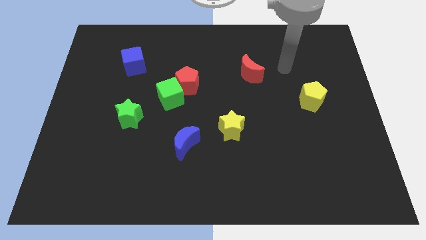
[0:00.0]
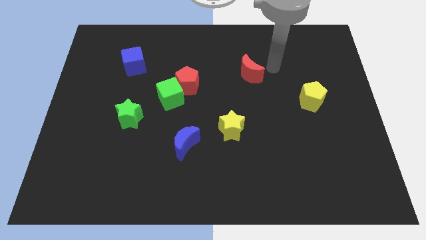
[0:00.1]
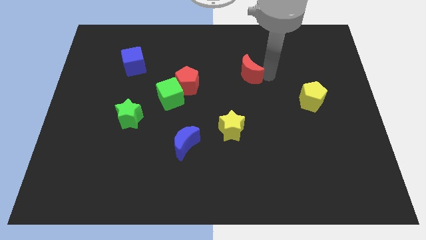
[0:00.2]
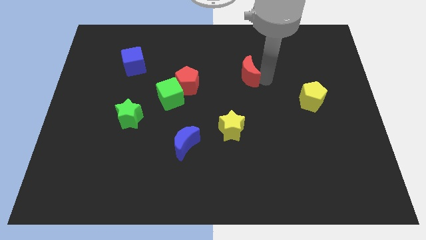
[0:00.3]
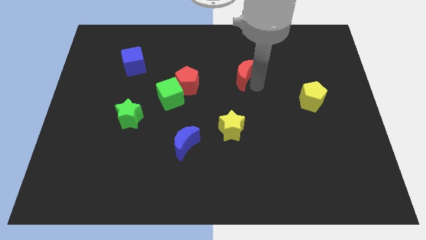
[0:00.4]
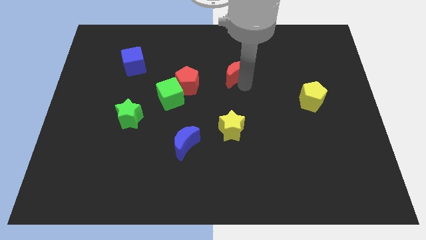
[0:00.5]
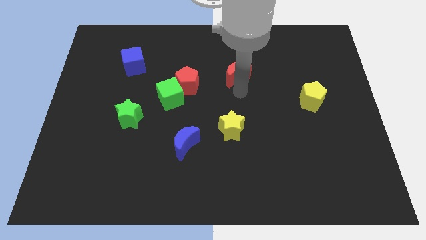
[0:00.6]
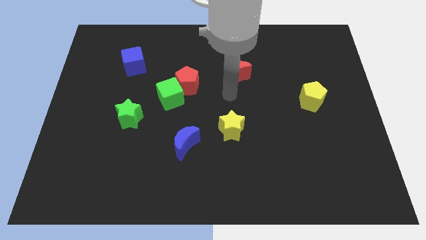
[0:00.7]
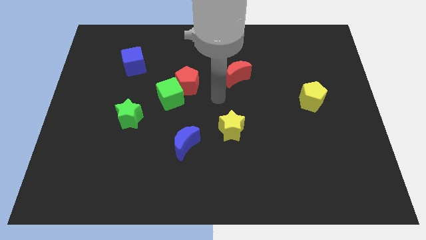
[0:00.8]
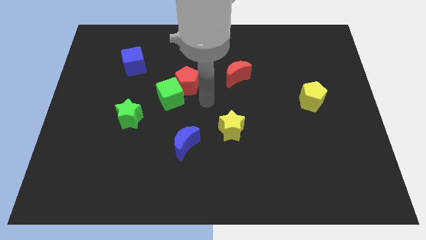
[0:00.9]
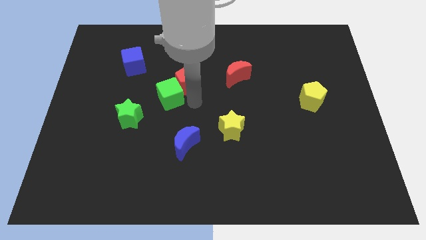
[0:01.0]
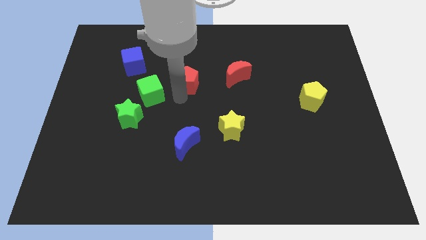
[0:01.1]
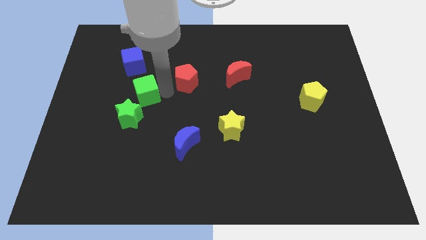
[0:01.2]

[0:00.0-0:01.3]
pull the red pentagon apart from the green cube

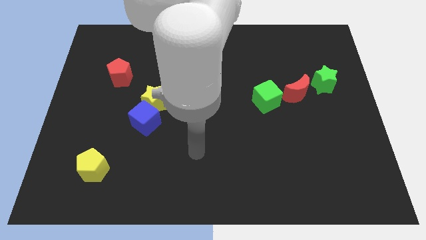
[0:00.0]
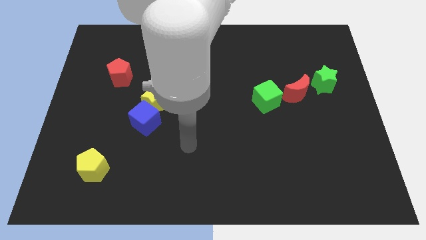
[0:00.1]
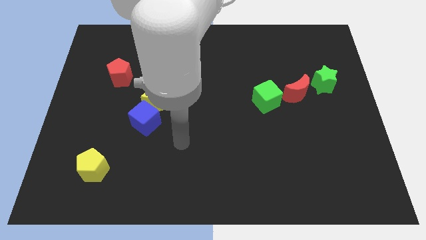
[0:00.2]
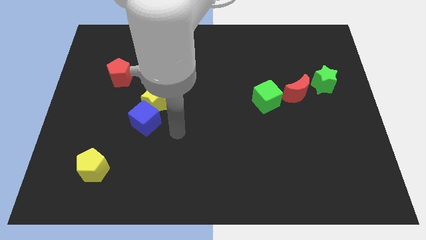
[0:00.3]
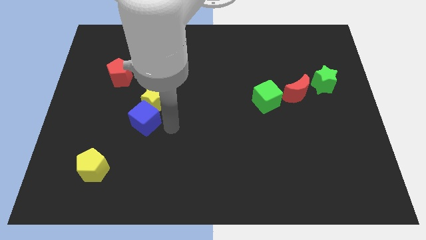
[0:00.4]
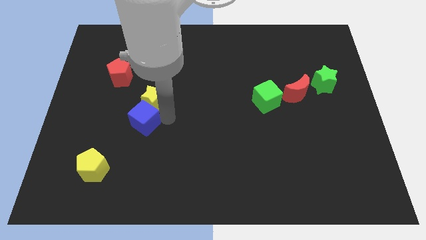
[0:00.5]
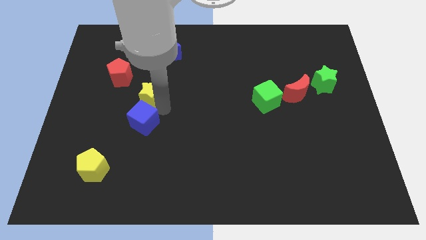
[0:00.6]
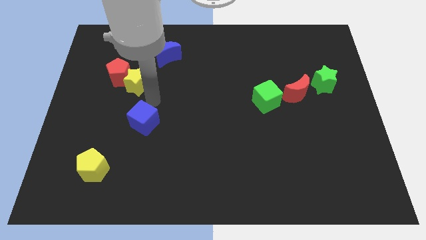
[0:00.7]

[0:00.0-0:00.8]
move the blue cube away from the yellow star

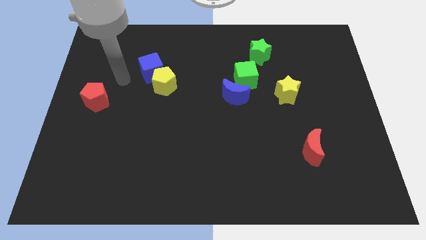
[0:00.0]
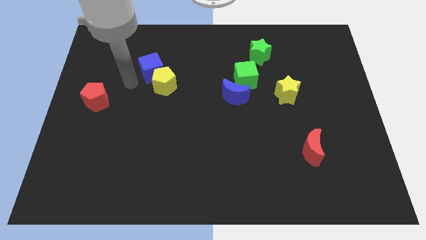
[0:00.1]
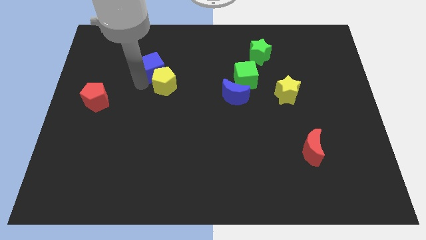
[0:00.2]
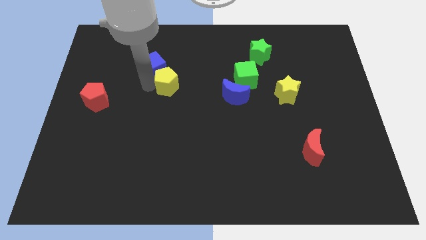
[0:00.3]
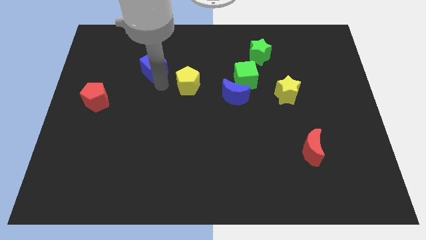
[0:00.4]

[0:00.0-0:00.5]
separate the blue cube from the yellow pentagon

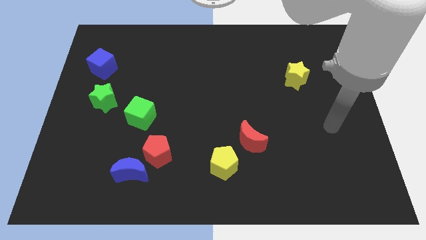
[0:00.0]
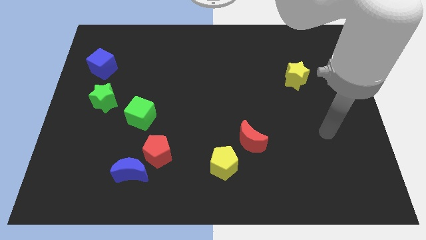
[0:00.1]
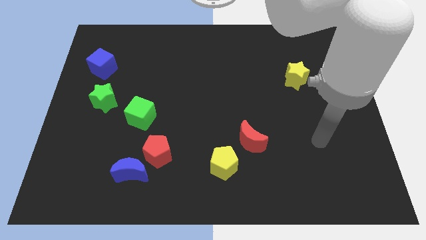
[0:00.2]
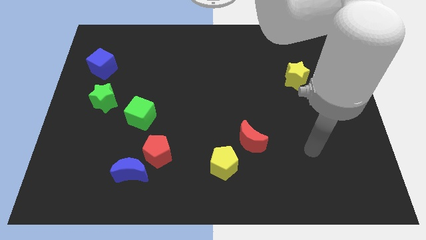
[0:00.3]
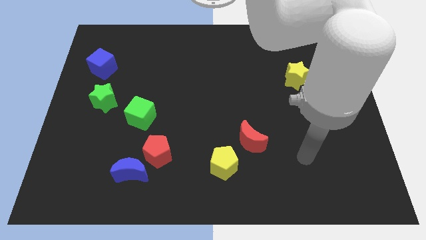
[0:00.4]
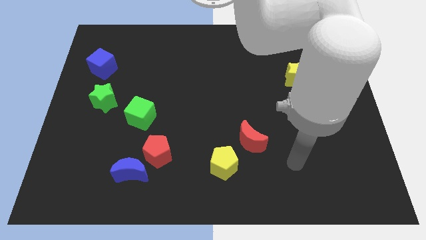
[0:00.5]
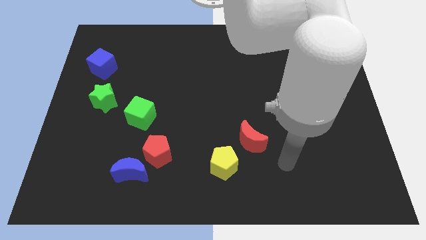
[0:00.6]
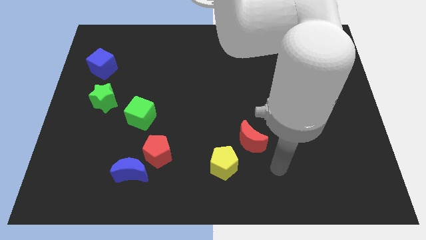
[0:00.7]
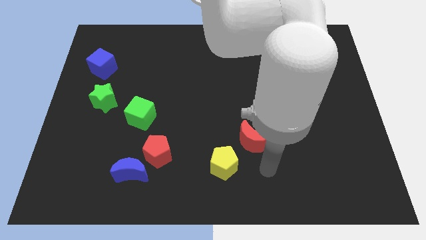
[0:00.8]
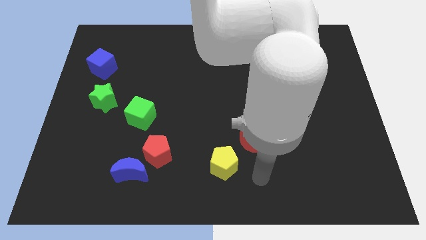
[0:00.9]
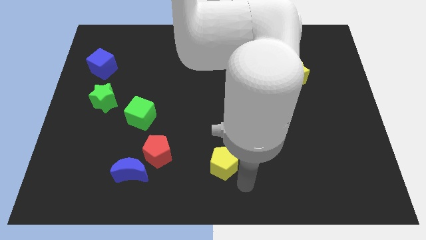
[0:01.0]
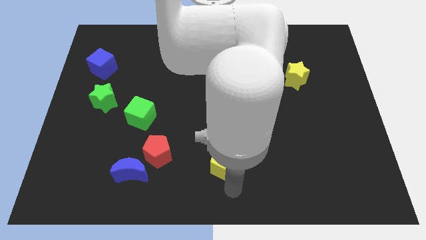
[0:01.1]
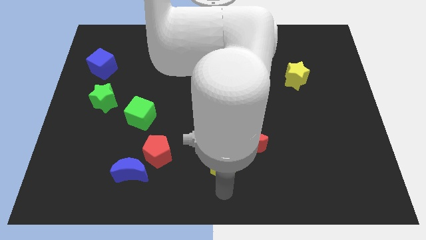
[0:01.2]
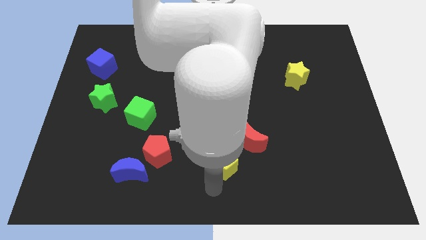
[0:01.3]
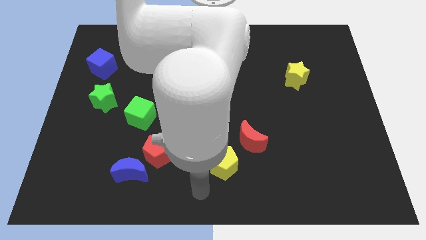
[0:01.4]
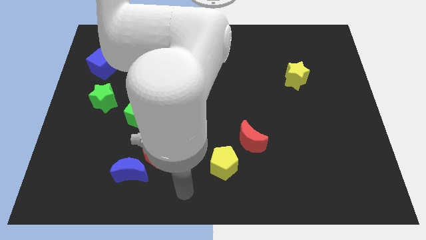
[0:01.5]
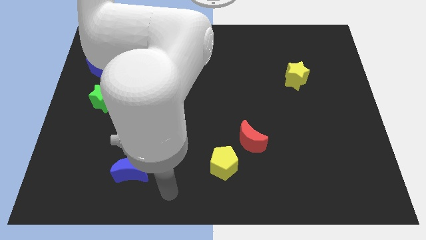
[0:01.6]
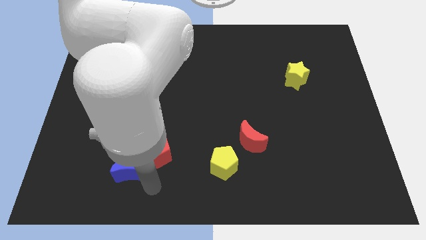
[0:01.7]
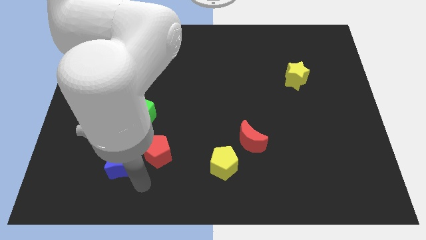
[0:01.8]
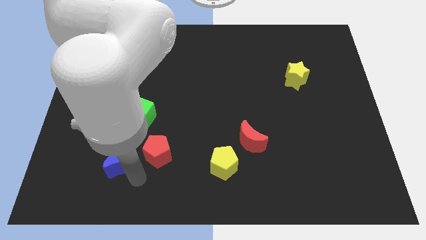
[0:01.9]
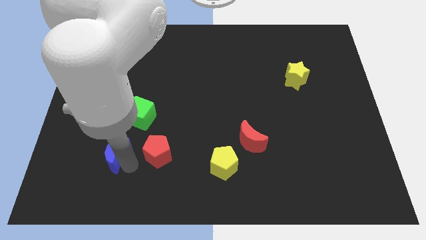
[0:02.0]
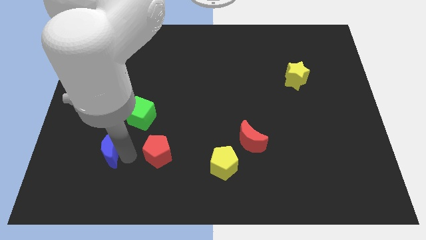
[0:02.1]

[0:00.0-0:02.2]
separate the red pentagon from the blue moon

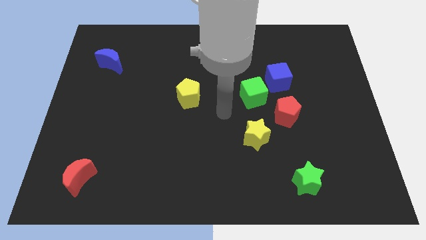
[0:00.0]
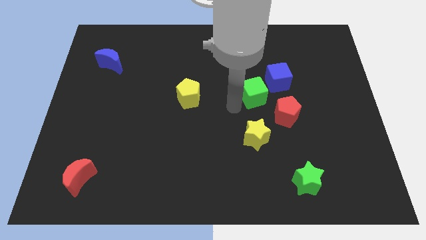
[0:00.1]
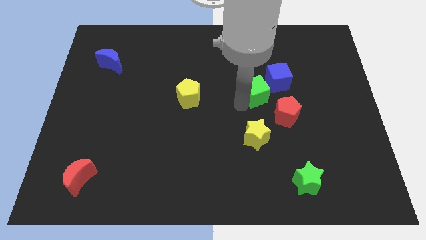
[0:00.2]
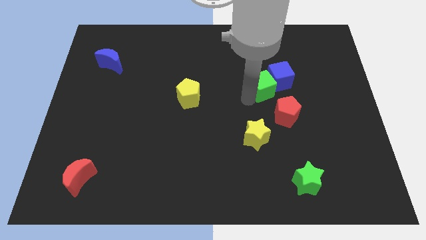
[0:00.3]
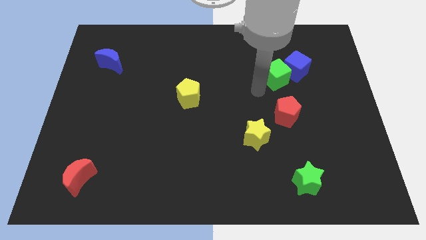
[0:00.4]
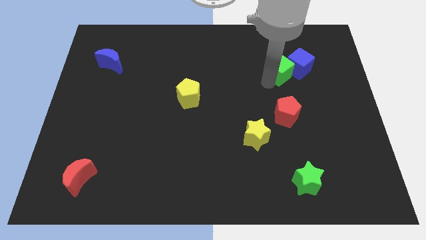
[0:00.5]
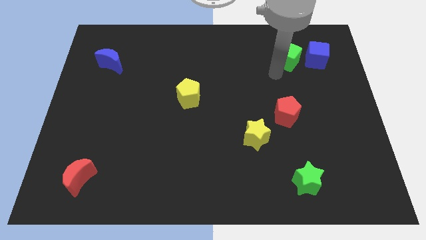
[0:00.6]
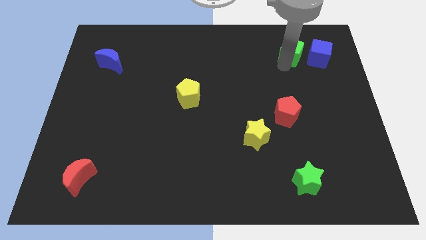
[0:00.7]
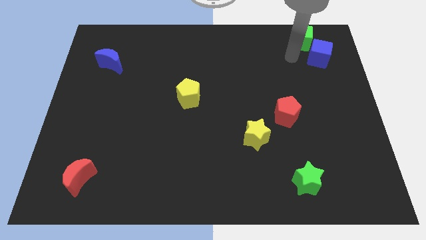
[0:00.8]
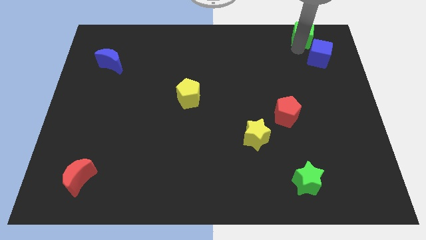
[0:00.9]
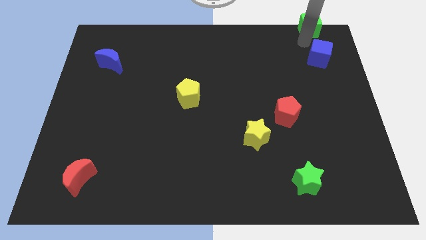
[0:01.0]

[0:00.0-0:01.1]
separate the blue cube from the green cube

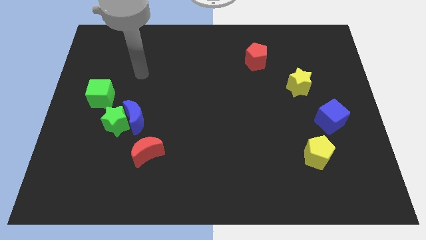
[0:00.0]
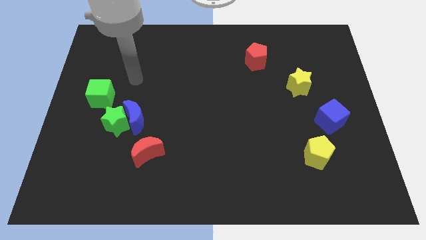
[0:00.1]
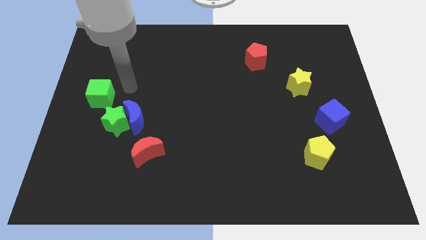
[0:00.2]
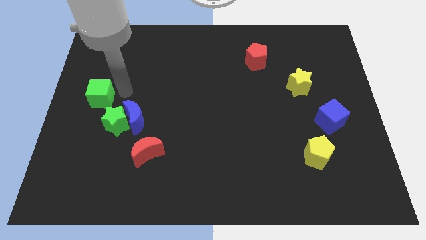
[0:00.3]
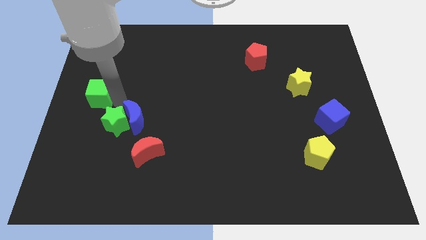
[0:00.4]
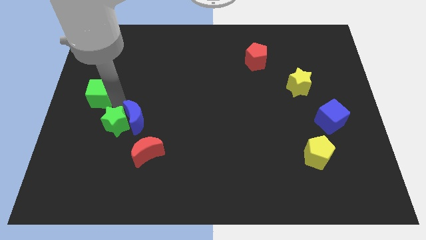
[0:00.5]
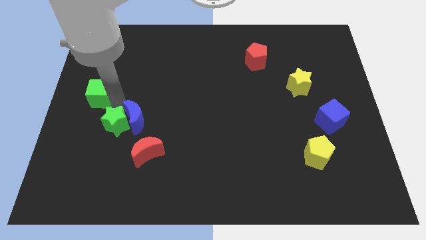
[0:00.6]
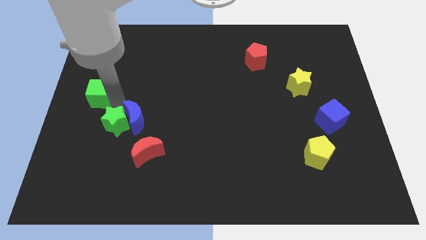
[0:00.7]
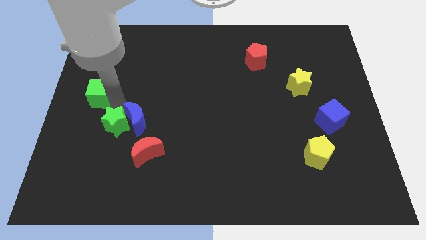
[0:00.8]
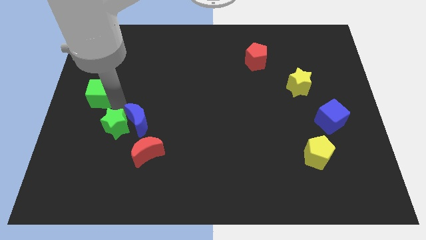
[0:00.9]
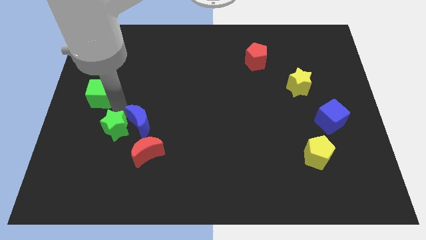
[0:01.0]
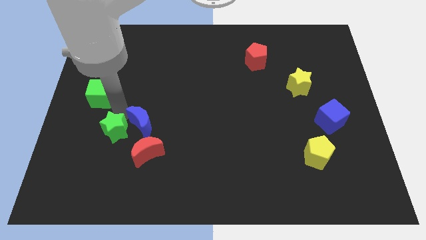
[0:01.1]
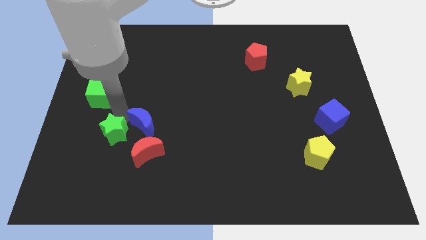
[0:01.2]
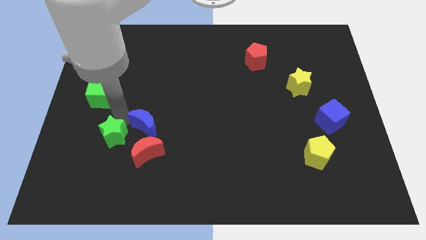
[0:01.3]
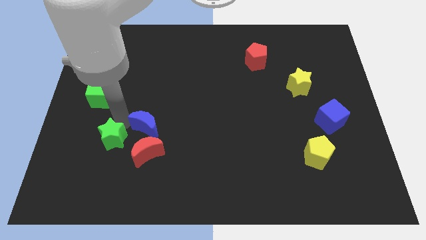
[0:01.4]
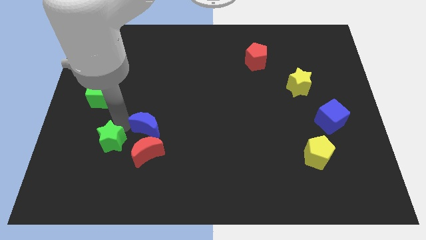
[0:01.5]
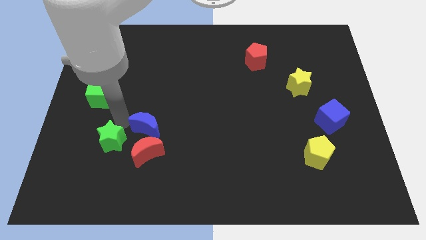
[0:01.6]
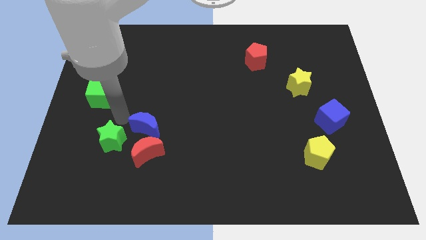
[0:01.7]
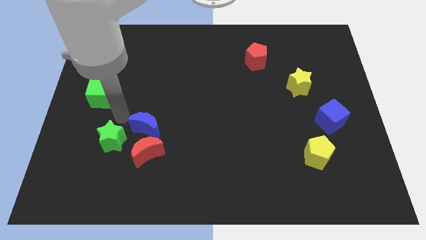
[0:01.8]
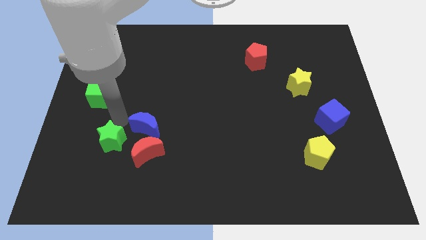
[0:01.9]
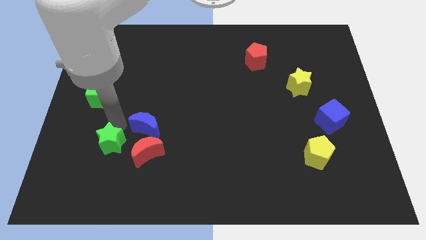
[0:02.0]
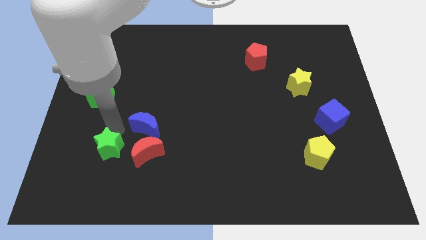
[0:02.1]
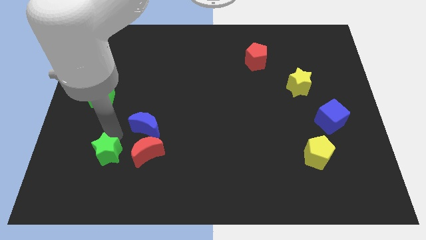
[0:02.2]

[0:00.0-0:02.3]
separate the green star from the blue moon and green cube

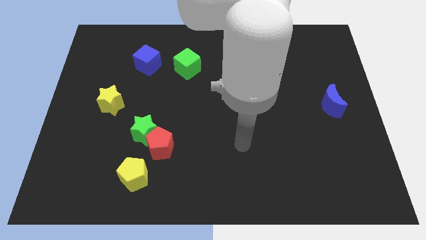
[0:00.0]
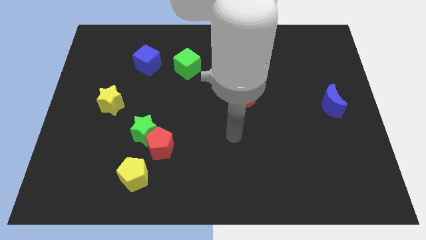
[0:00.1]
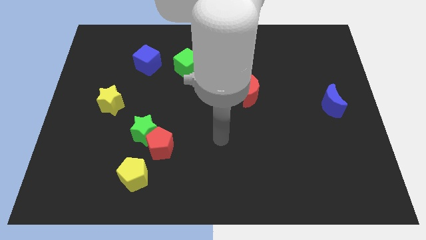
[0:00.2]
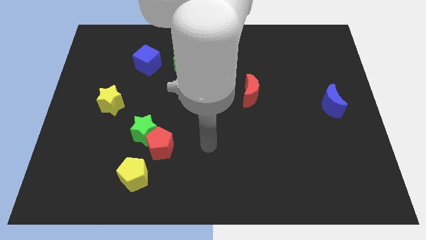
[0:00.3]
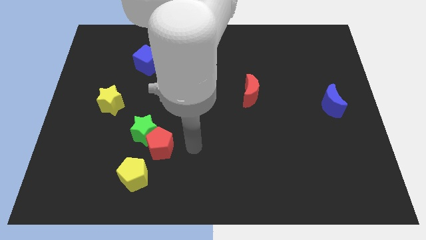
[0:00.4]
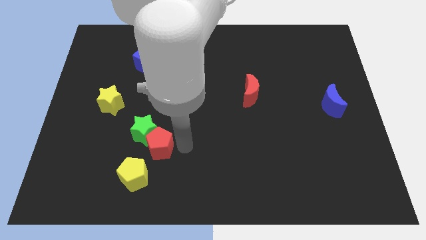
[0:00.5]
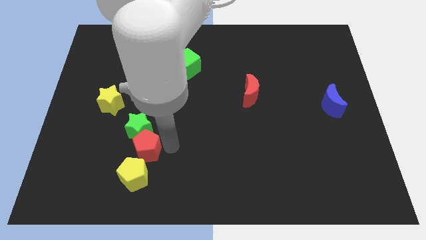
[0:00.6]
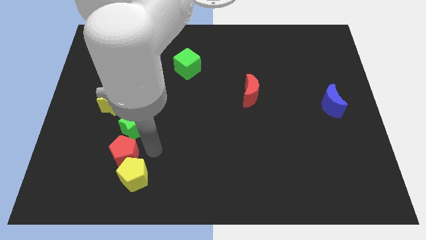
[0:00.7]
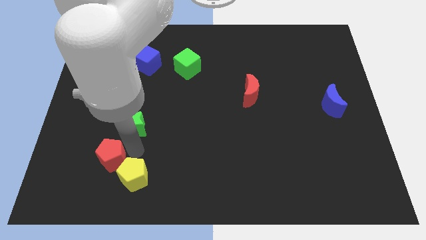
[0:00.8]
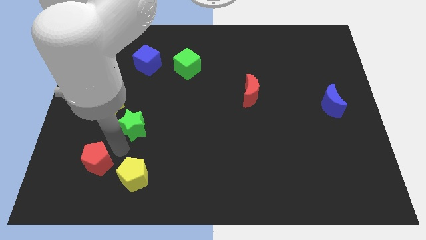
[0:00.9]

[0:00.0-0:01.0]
move the green star away from the red pentagon

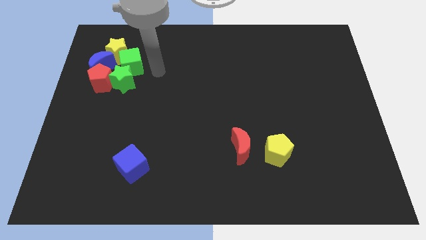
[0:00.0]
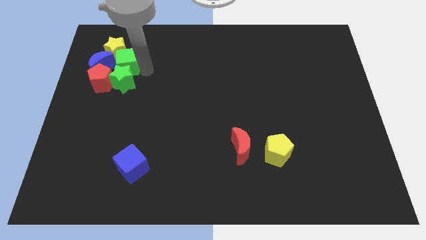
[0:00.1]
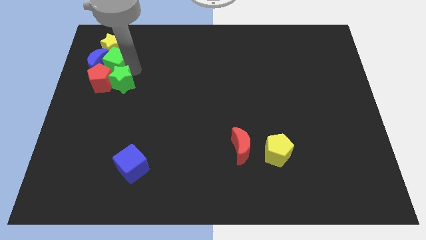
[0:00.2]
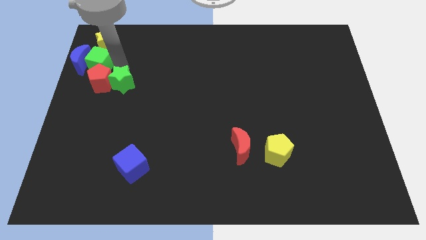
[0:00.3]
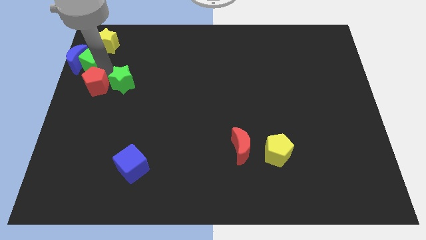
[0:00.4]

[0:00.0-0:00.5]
move the green star away from the red pentagon, green cube, and blue moon
